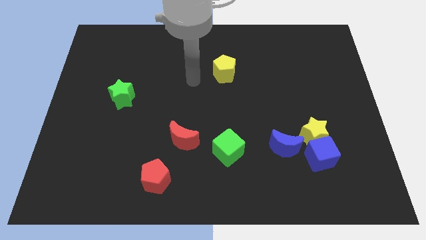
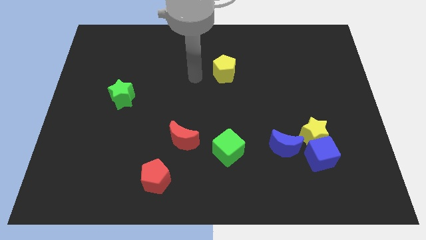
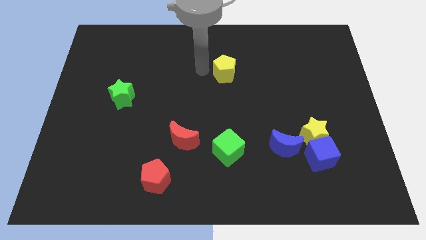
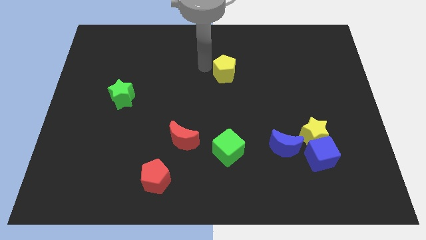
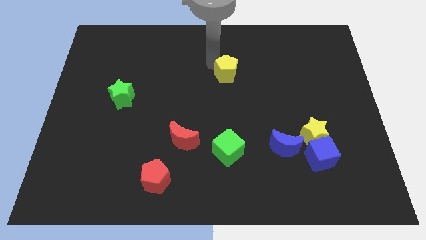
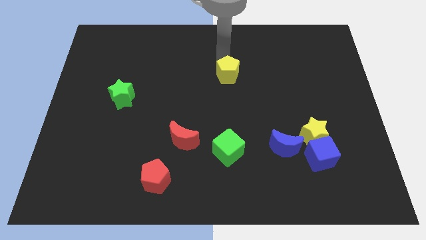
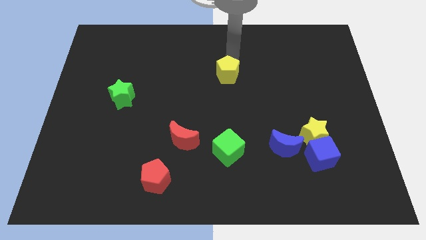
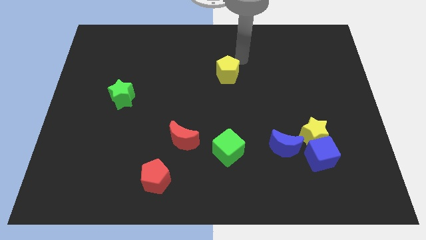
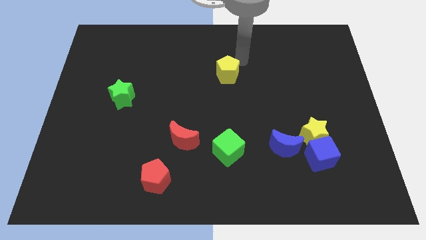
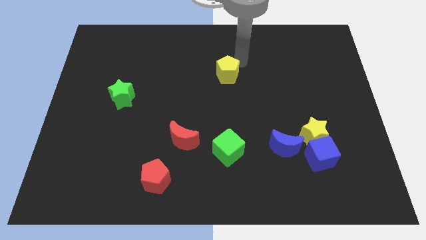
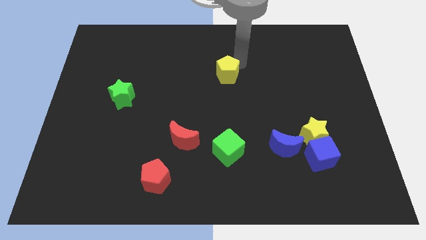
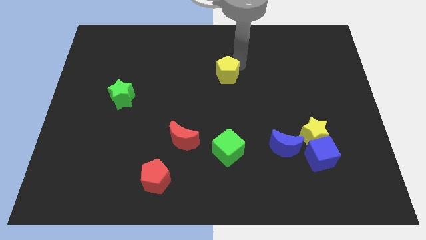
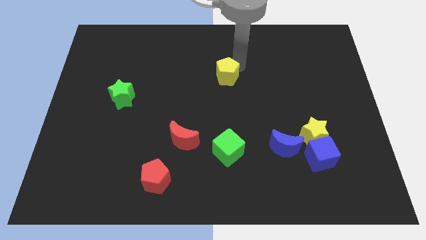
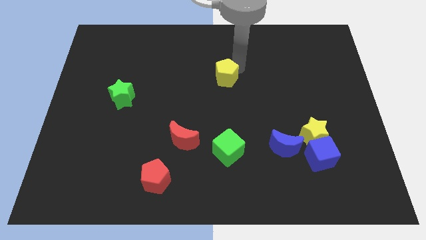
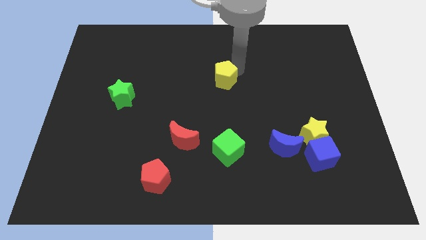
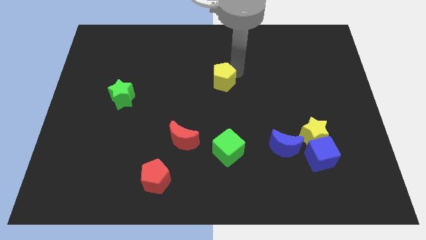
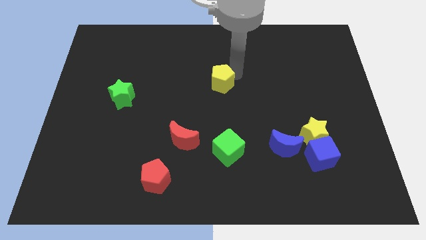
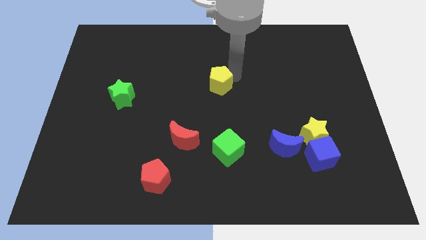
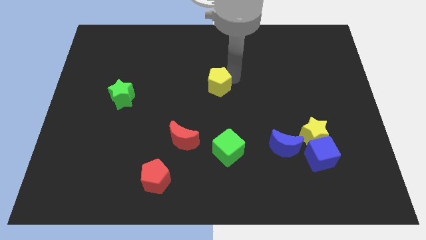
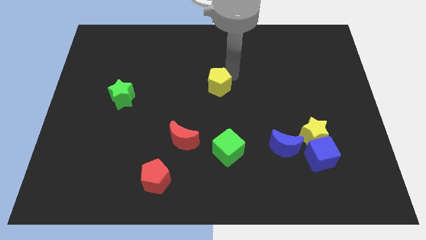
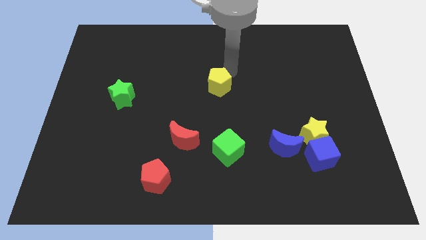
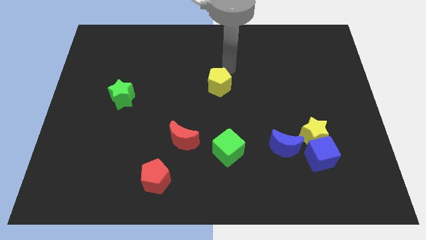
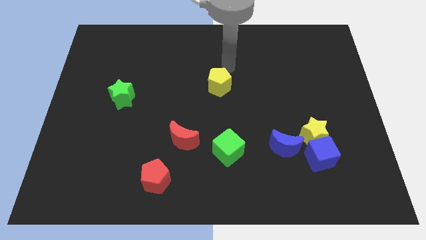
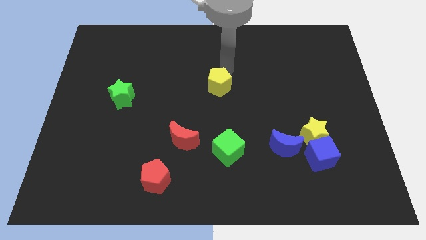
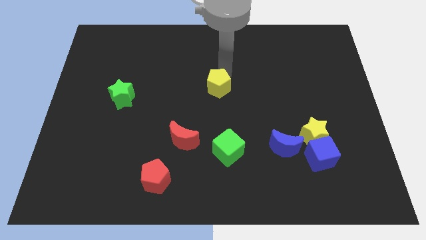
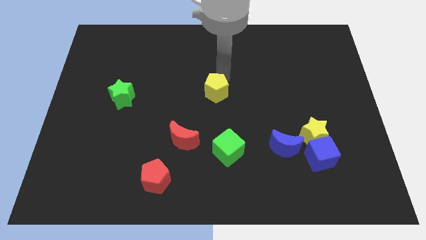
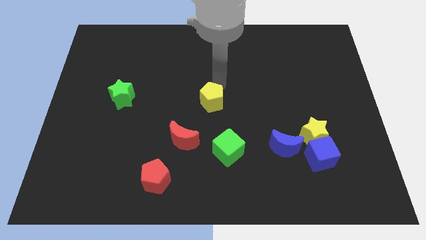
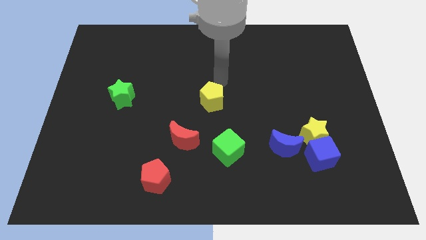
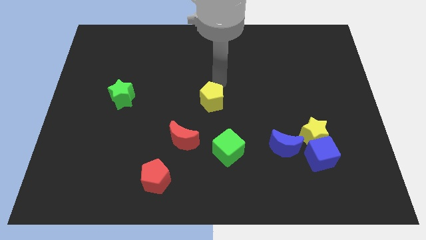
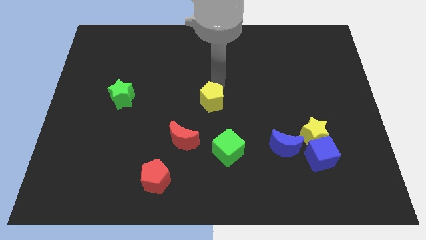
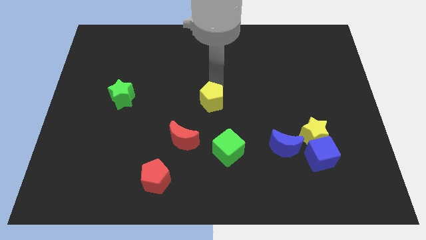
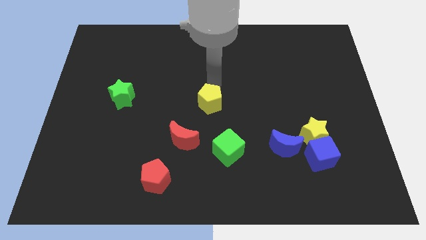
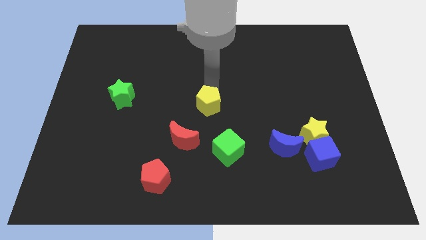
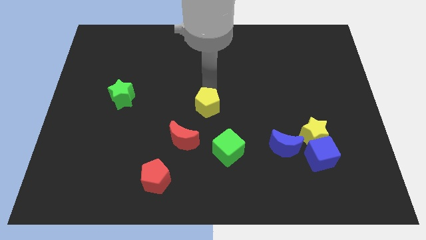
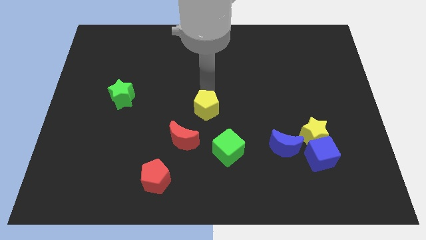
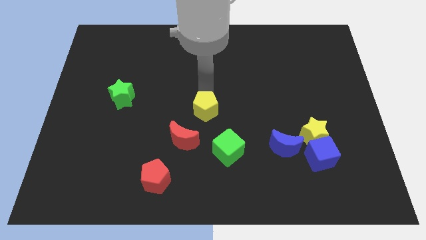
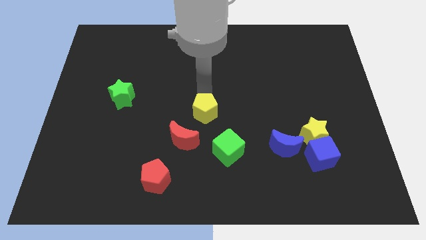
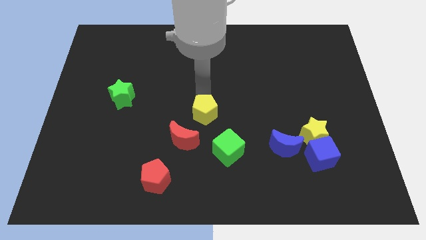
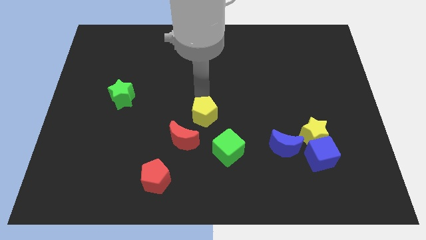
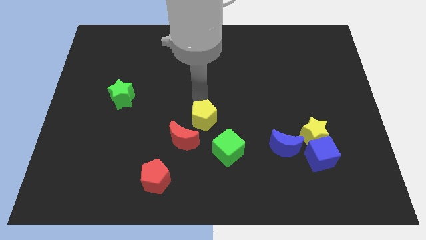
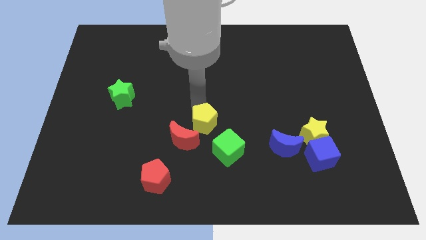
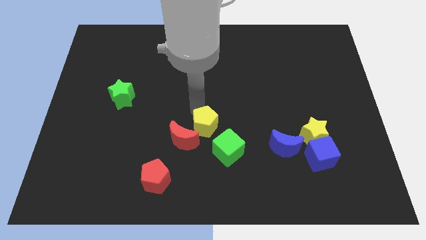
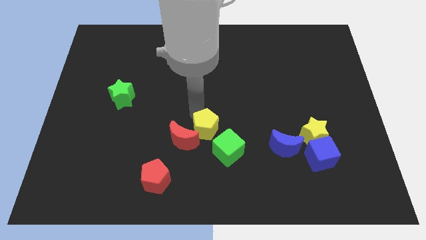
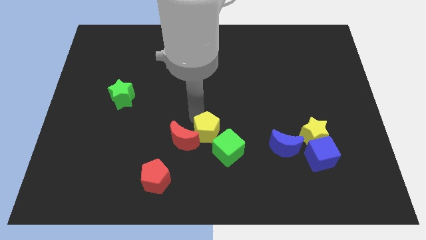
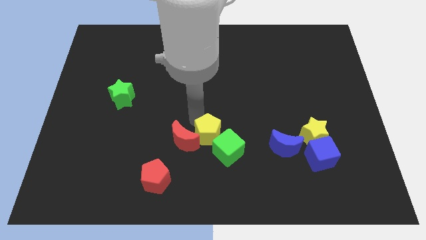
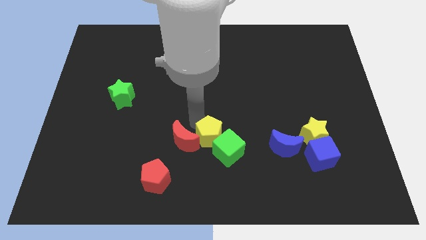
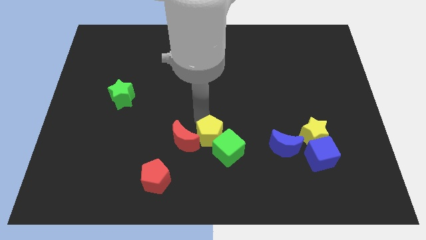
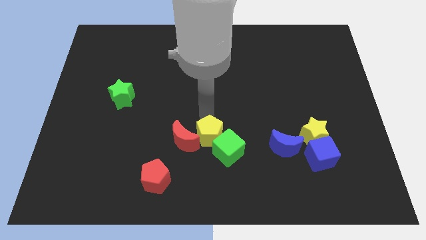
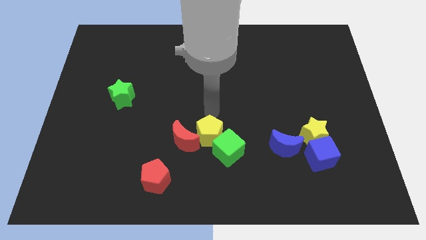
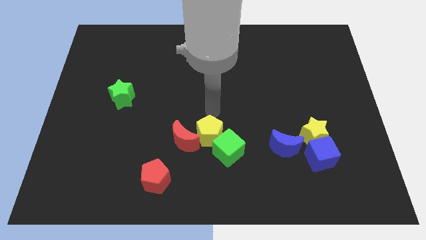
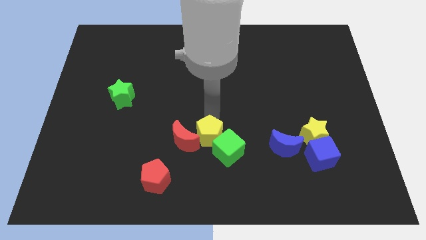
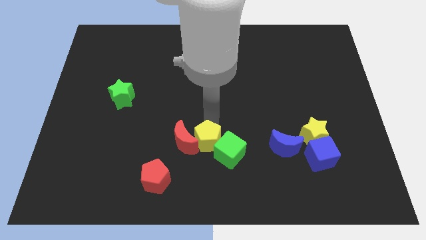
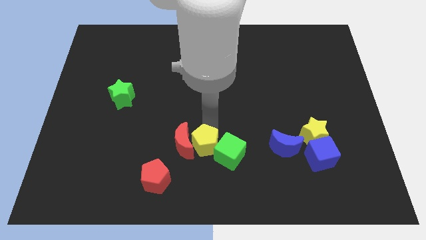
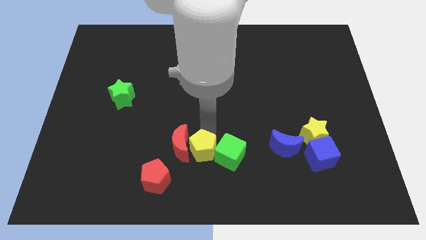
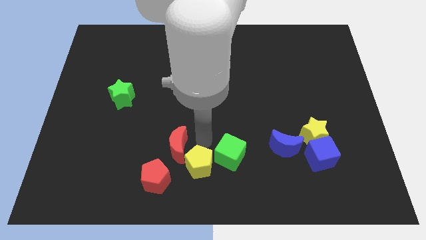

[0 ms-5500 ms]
slide the yellow pentagon to the bottom side
